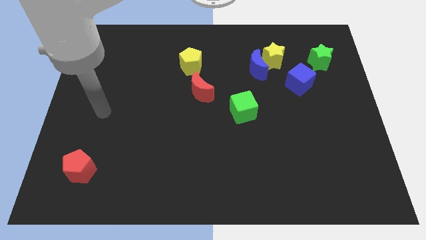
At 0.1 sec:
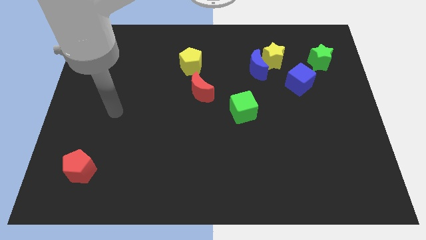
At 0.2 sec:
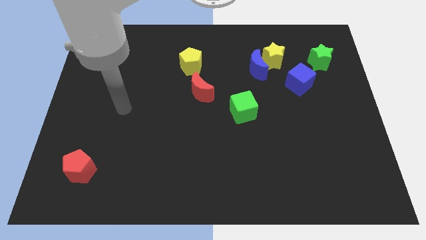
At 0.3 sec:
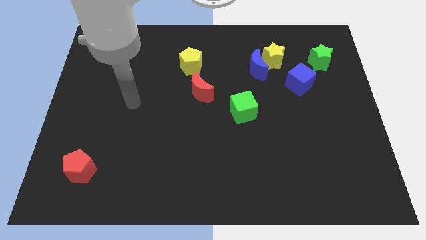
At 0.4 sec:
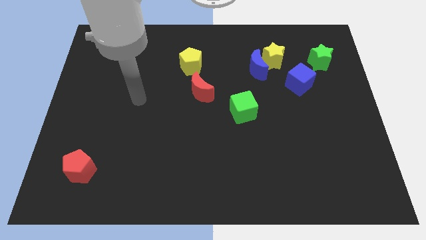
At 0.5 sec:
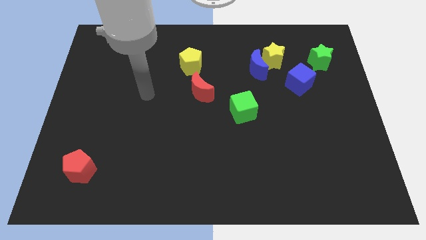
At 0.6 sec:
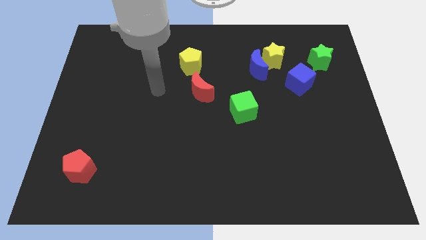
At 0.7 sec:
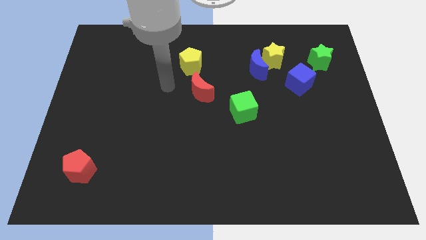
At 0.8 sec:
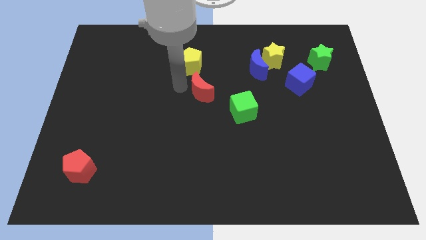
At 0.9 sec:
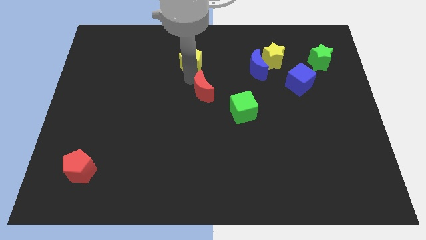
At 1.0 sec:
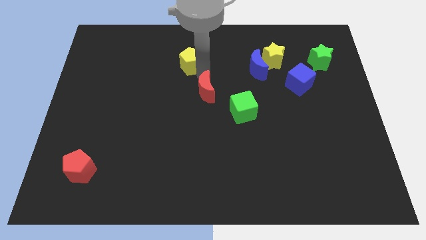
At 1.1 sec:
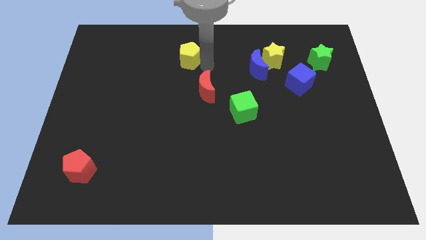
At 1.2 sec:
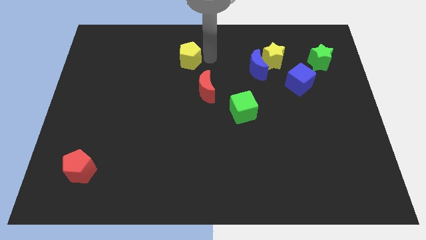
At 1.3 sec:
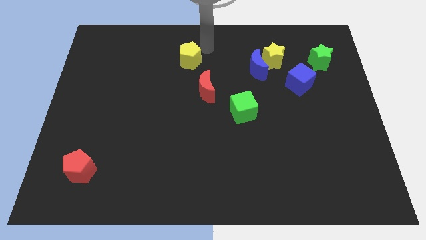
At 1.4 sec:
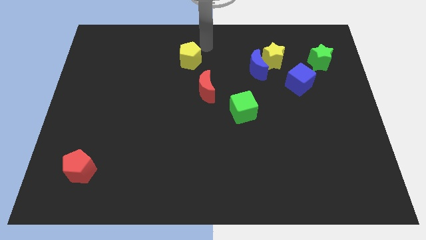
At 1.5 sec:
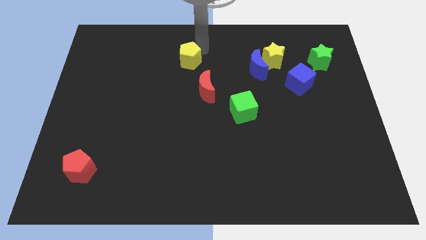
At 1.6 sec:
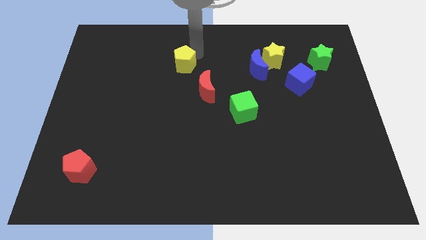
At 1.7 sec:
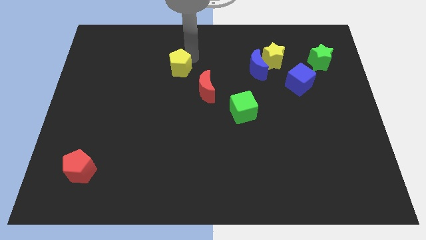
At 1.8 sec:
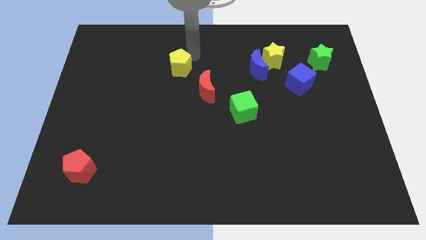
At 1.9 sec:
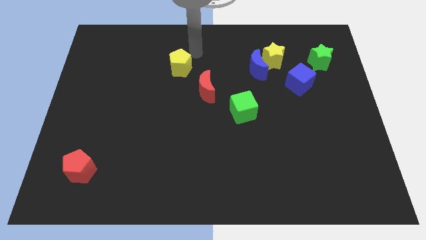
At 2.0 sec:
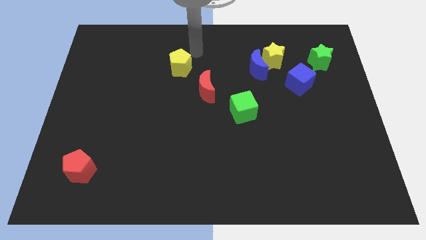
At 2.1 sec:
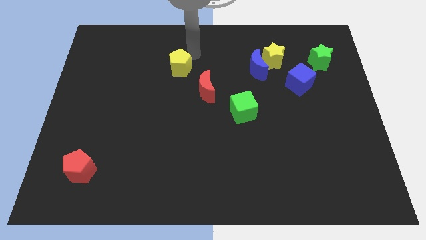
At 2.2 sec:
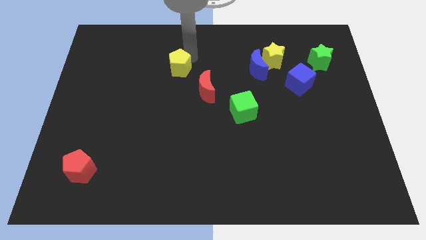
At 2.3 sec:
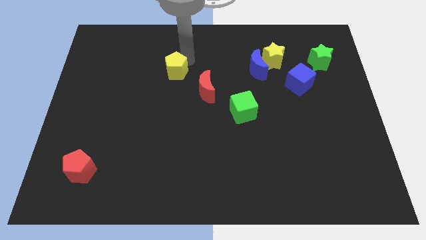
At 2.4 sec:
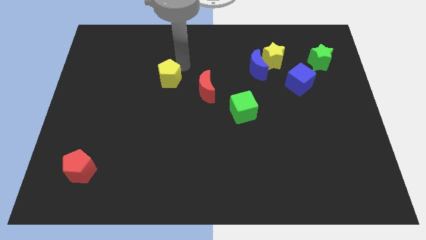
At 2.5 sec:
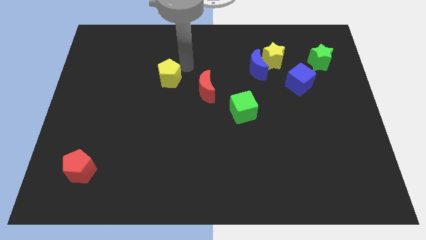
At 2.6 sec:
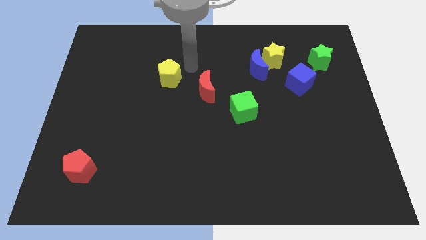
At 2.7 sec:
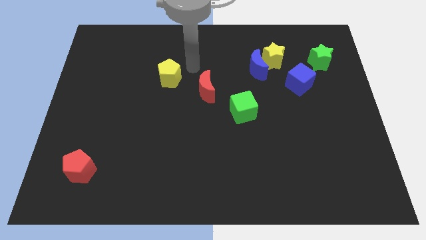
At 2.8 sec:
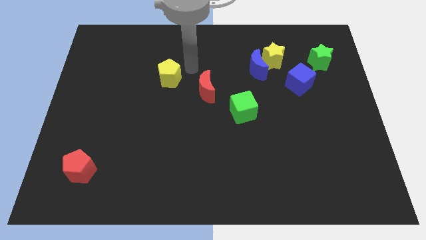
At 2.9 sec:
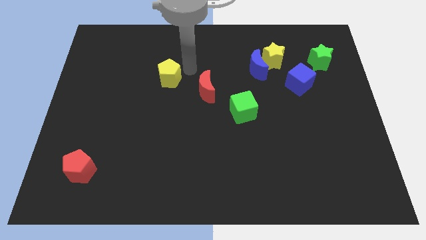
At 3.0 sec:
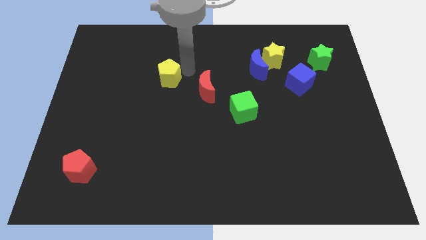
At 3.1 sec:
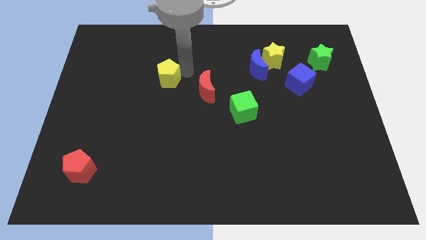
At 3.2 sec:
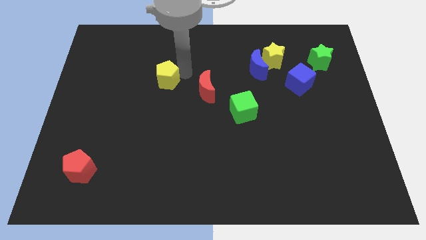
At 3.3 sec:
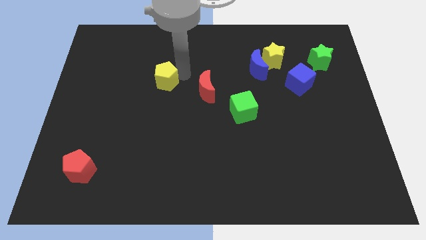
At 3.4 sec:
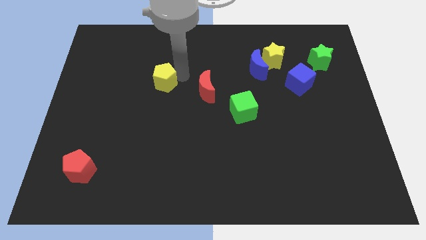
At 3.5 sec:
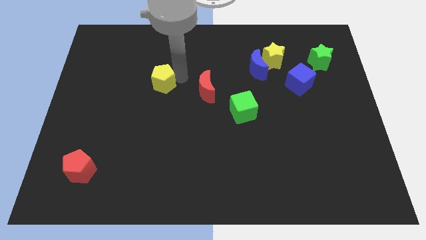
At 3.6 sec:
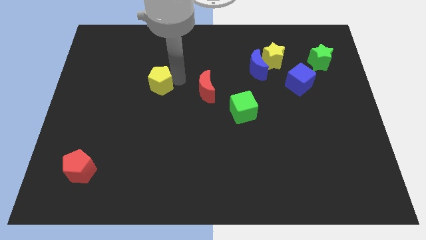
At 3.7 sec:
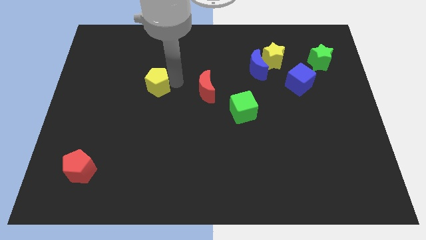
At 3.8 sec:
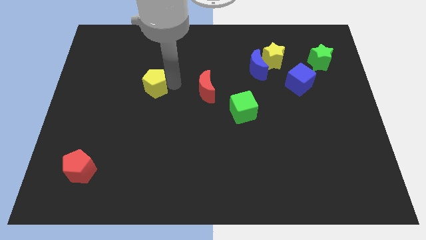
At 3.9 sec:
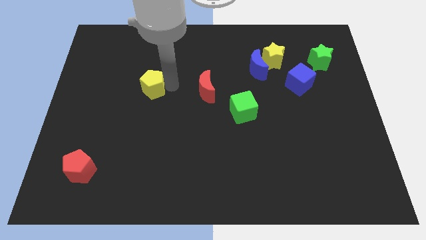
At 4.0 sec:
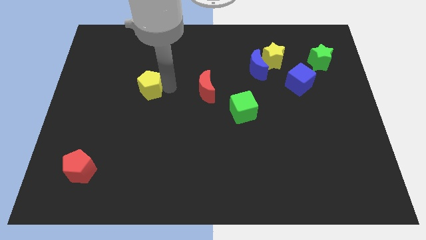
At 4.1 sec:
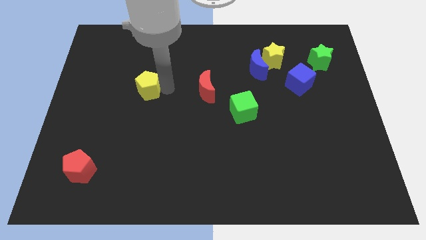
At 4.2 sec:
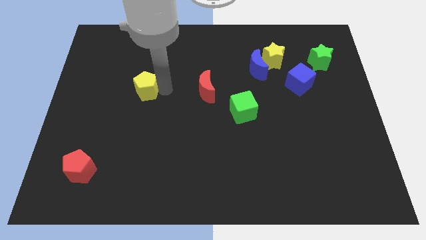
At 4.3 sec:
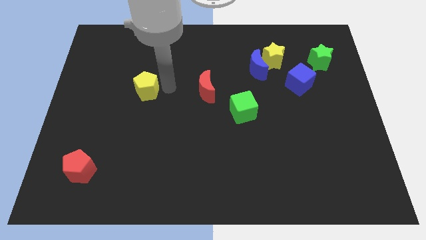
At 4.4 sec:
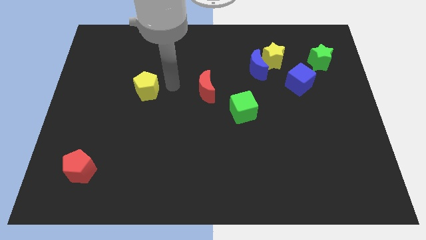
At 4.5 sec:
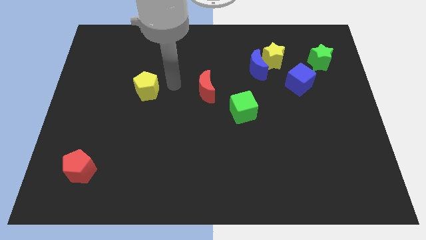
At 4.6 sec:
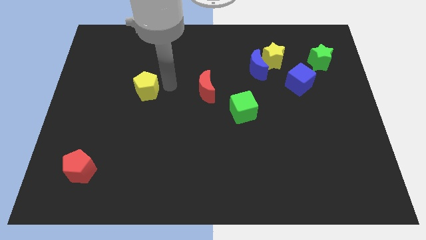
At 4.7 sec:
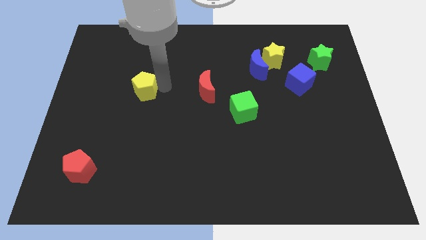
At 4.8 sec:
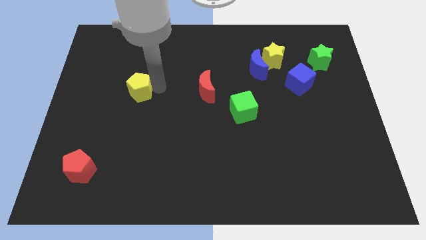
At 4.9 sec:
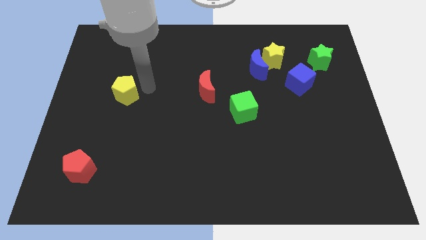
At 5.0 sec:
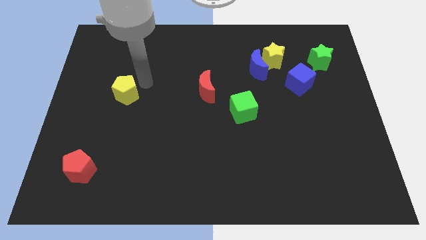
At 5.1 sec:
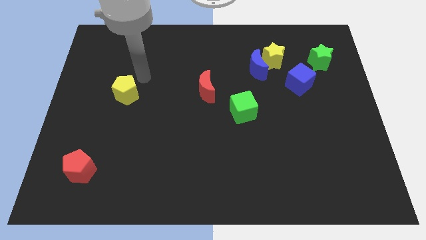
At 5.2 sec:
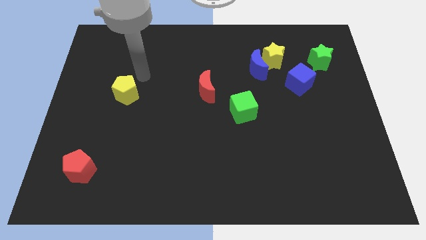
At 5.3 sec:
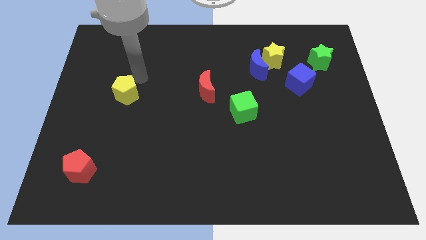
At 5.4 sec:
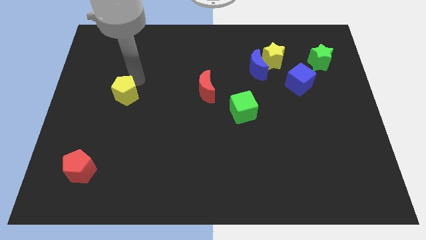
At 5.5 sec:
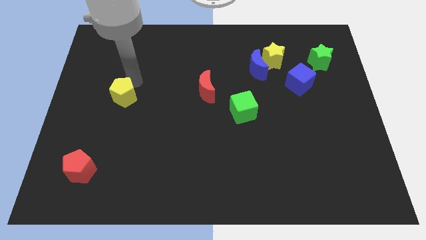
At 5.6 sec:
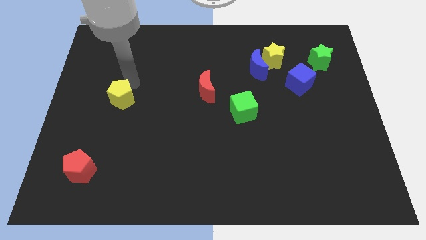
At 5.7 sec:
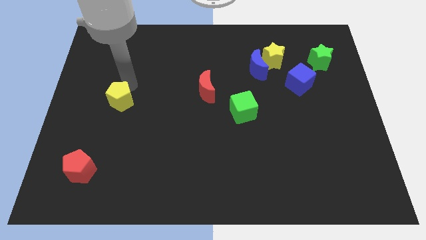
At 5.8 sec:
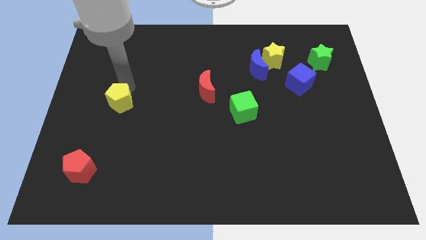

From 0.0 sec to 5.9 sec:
move the yellow pentagon downwards and to the left diagonally

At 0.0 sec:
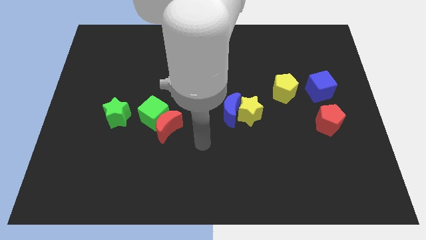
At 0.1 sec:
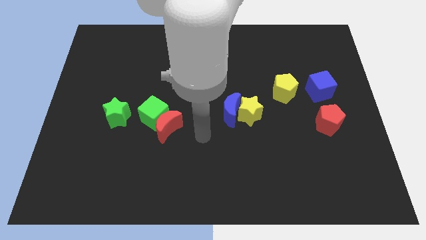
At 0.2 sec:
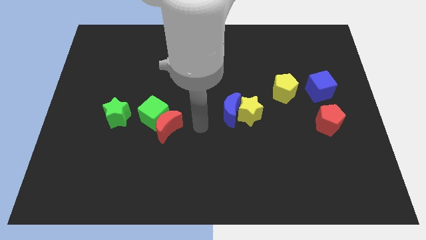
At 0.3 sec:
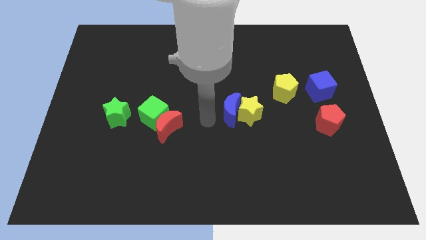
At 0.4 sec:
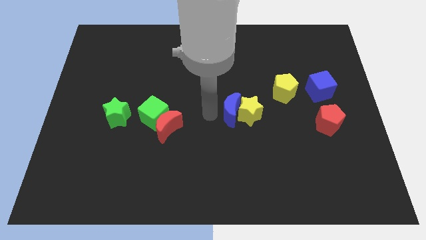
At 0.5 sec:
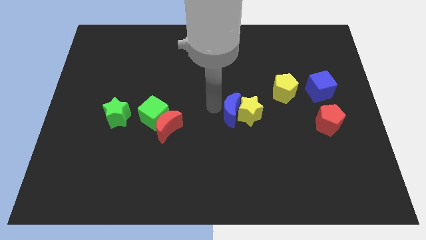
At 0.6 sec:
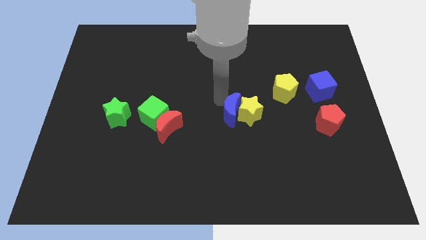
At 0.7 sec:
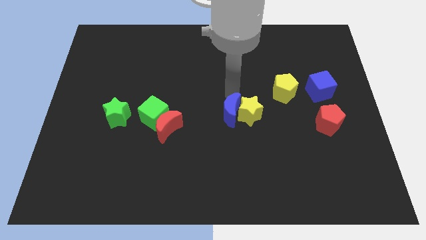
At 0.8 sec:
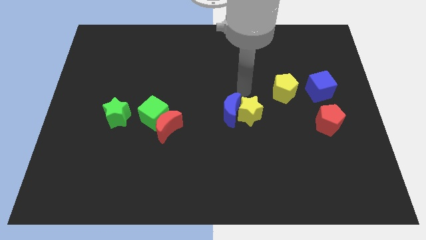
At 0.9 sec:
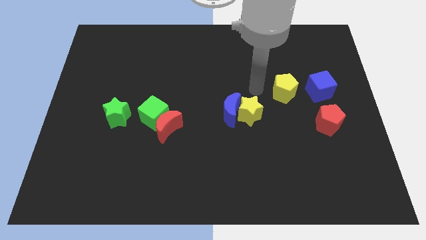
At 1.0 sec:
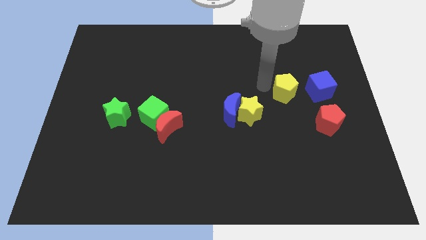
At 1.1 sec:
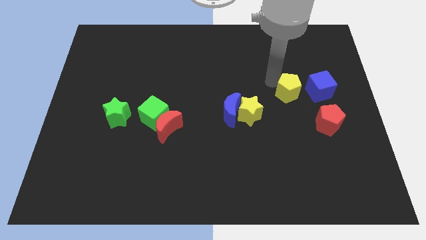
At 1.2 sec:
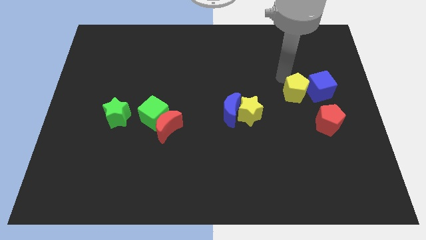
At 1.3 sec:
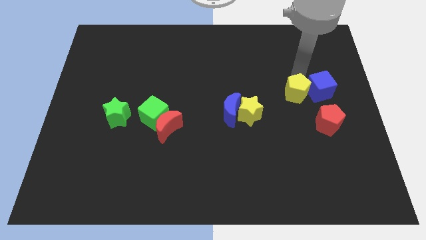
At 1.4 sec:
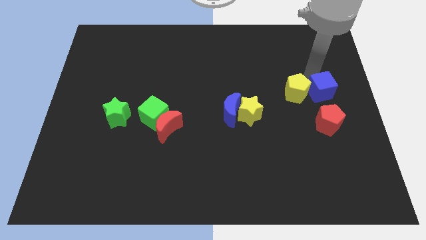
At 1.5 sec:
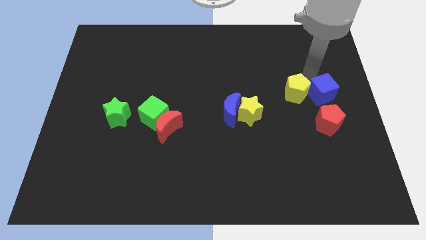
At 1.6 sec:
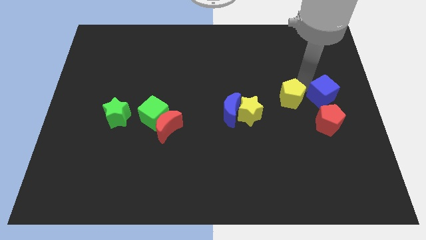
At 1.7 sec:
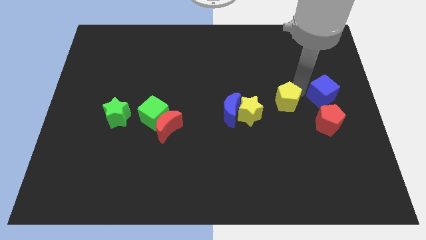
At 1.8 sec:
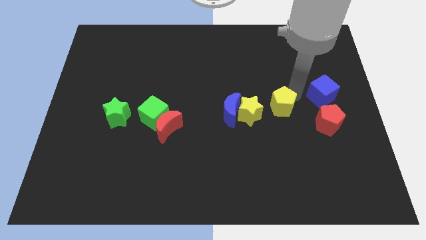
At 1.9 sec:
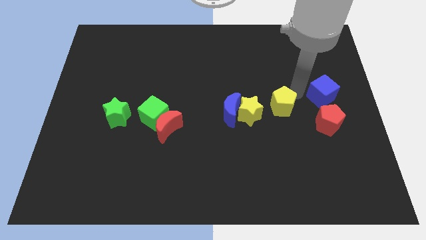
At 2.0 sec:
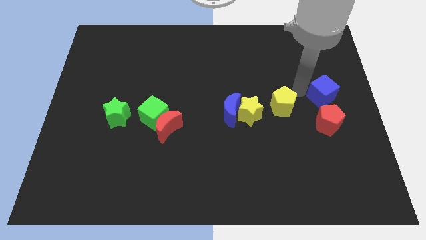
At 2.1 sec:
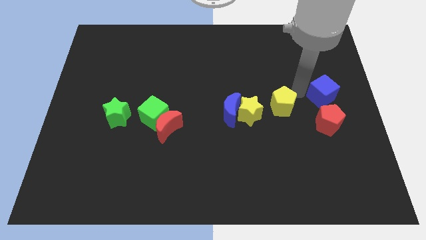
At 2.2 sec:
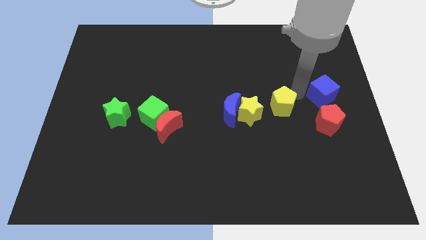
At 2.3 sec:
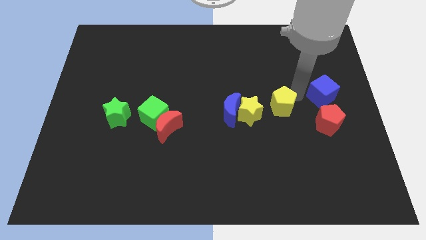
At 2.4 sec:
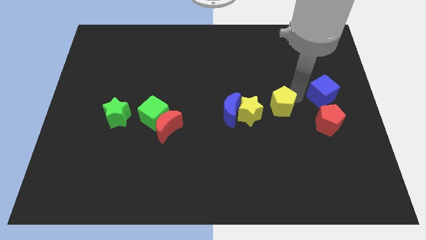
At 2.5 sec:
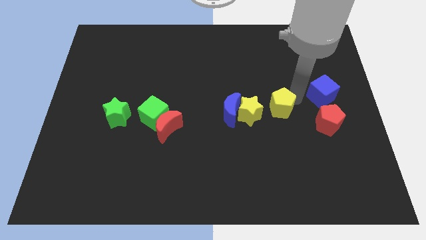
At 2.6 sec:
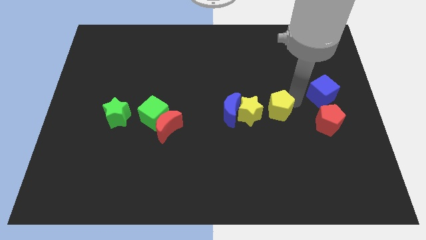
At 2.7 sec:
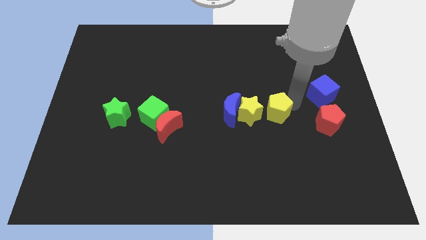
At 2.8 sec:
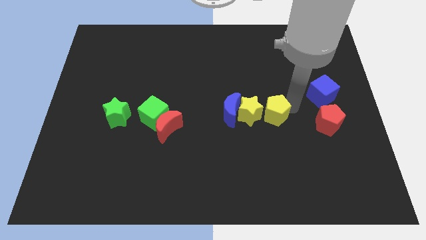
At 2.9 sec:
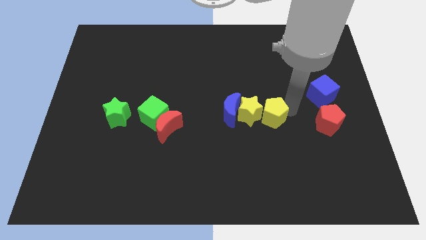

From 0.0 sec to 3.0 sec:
slightly slide the yellow pentagon down and to the left
